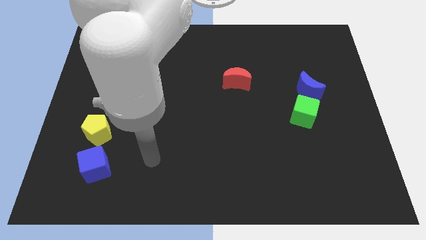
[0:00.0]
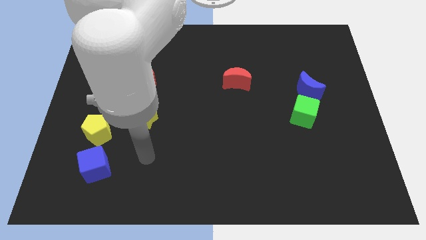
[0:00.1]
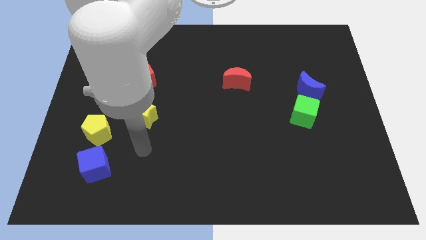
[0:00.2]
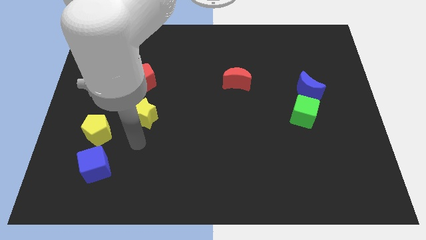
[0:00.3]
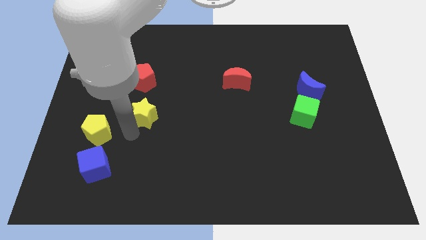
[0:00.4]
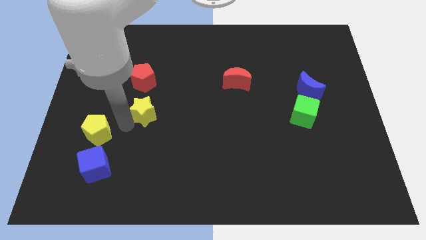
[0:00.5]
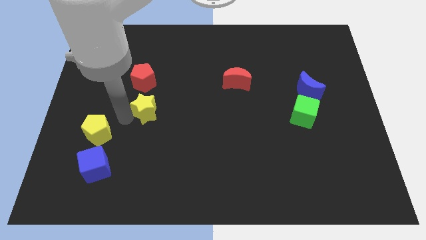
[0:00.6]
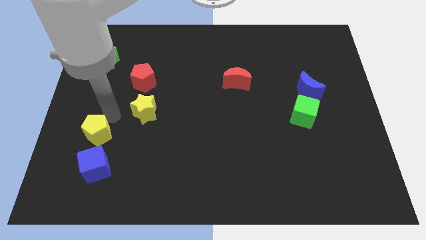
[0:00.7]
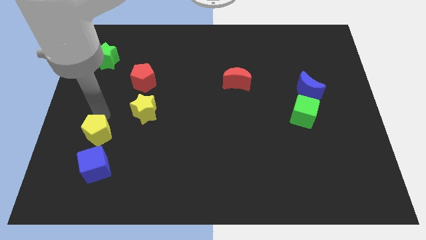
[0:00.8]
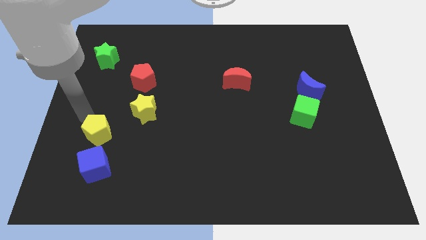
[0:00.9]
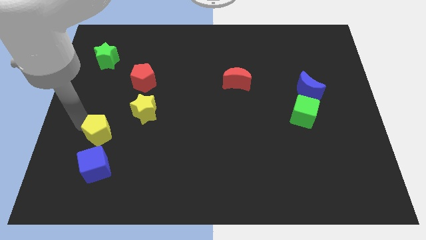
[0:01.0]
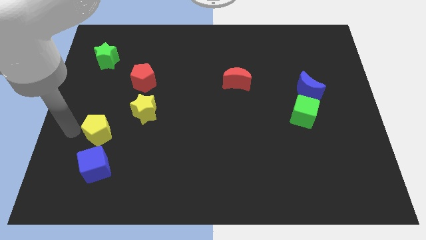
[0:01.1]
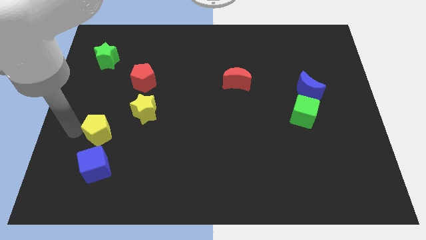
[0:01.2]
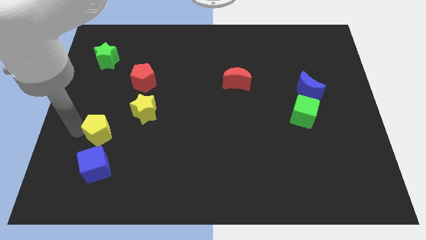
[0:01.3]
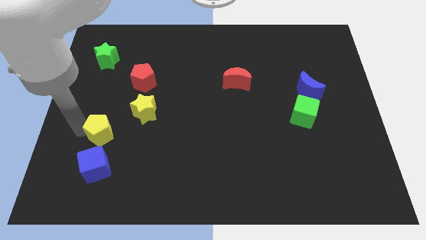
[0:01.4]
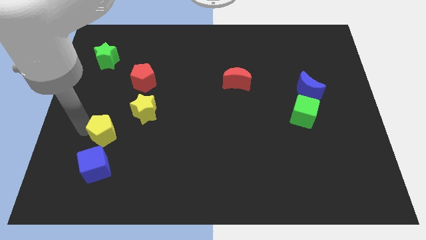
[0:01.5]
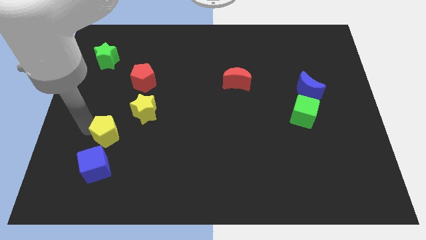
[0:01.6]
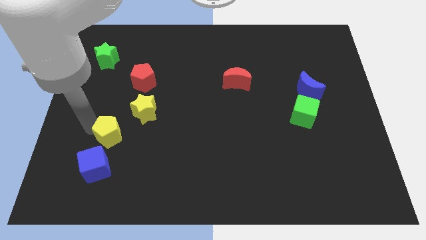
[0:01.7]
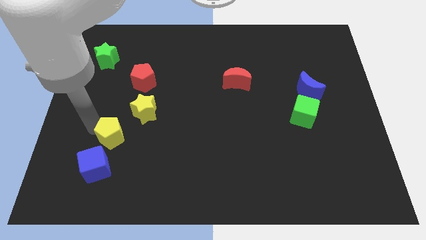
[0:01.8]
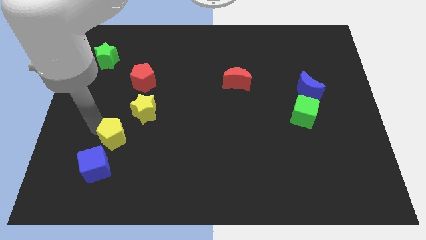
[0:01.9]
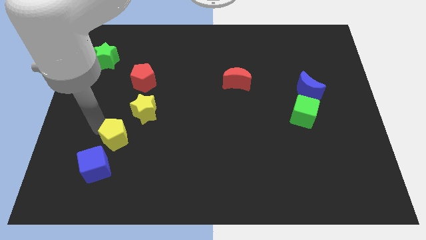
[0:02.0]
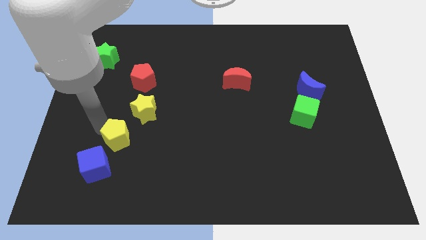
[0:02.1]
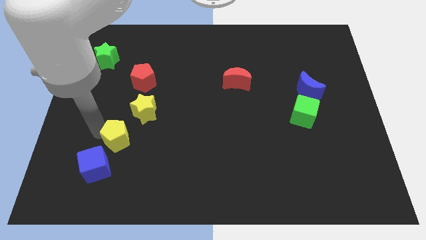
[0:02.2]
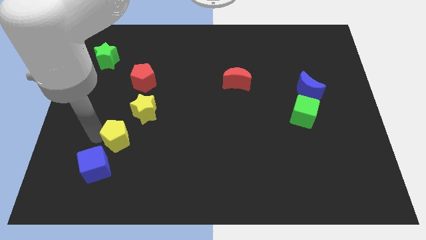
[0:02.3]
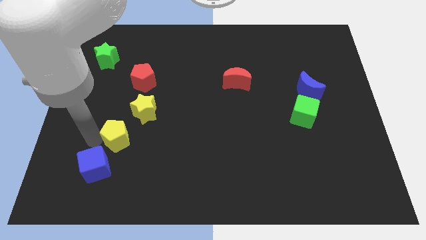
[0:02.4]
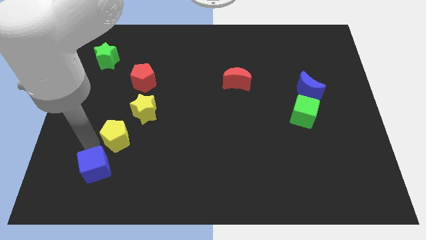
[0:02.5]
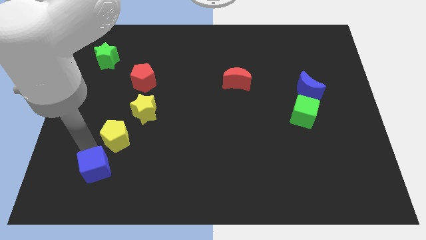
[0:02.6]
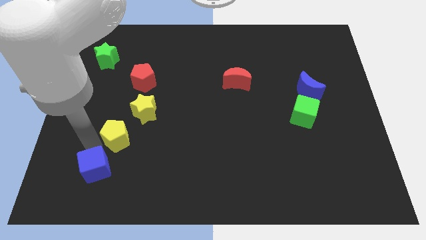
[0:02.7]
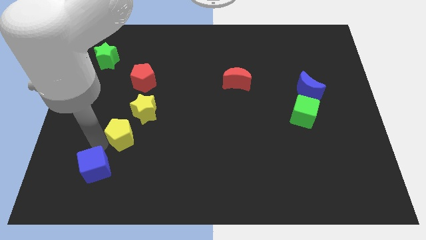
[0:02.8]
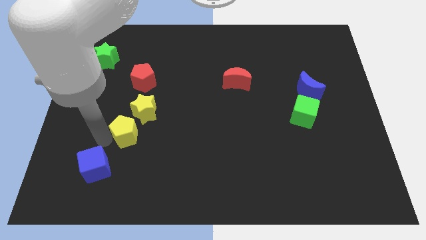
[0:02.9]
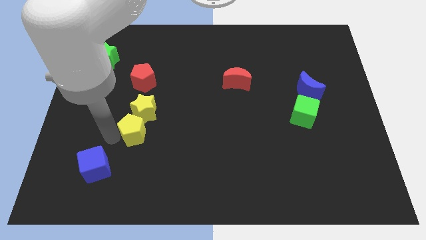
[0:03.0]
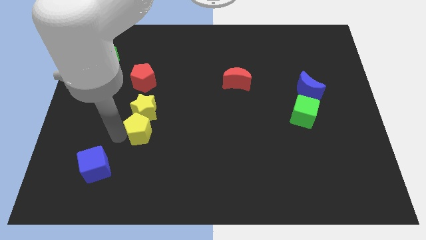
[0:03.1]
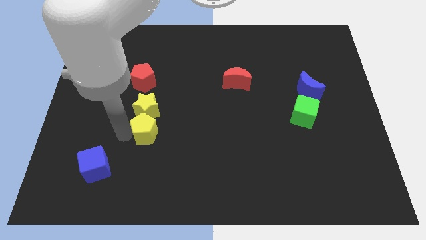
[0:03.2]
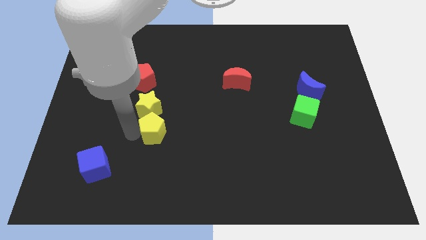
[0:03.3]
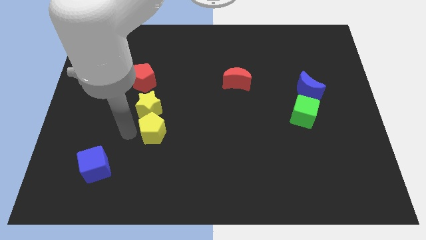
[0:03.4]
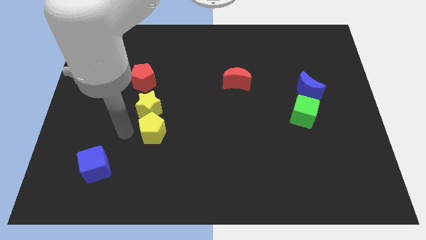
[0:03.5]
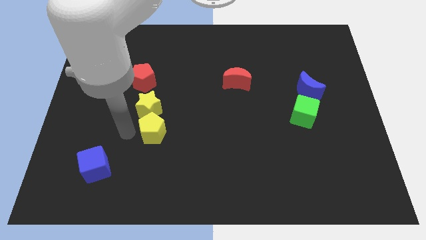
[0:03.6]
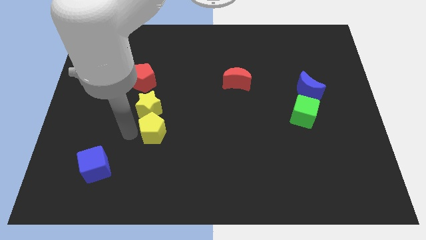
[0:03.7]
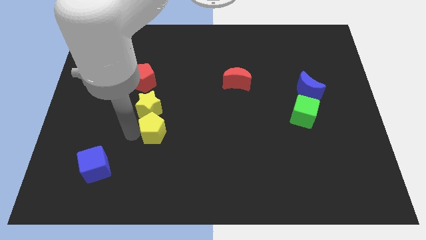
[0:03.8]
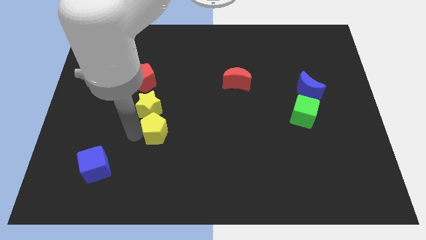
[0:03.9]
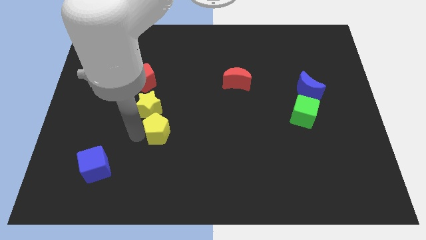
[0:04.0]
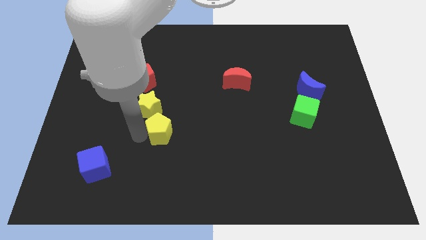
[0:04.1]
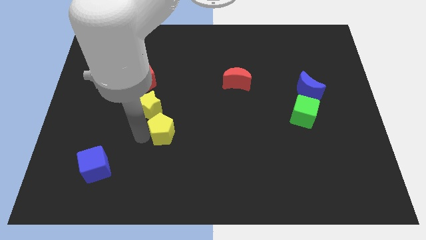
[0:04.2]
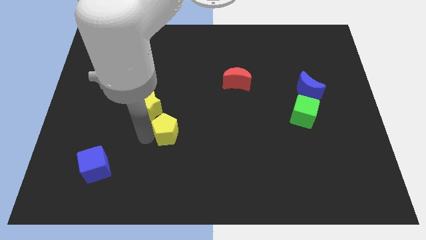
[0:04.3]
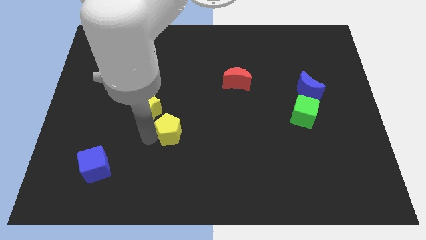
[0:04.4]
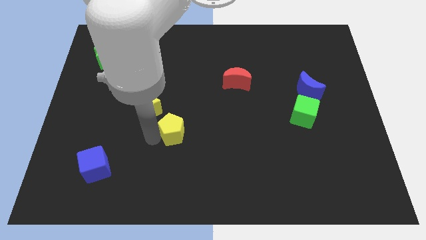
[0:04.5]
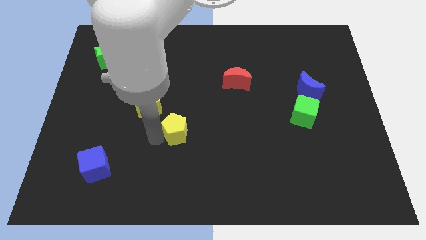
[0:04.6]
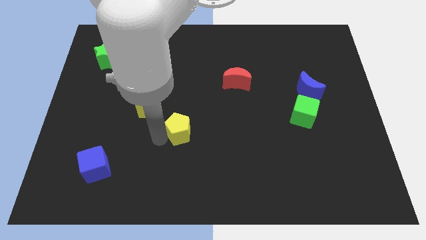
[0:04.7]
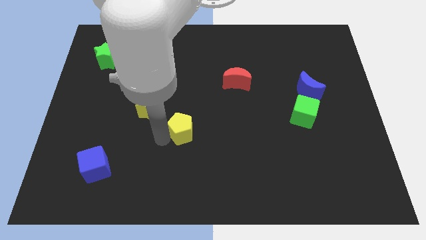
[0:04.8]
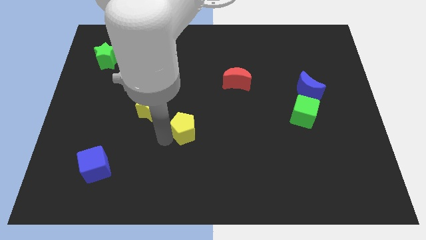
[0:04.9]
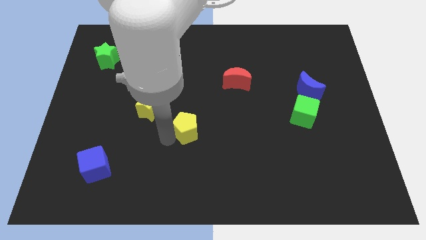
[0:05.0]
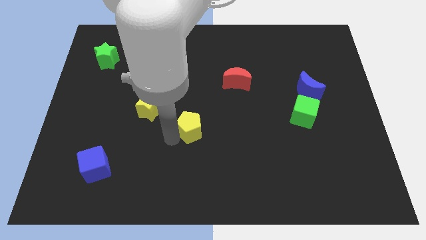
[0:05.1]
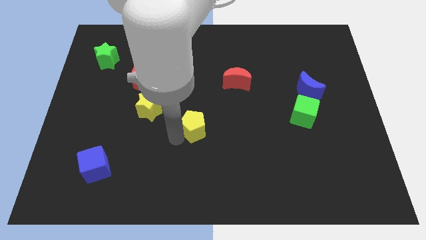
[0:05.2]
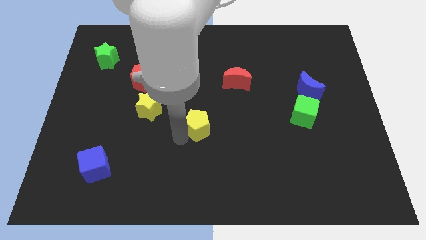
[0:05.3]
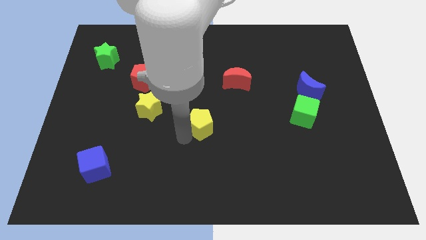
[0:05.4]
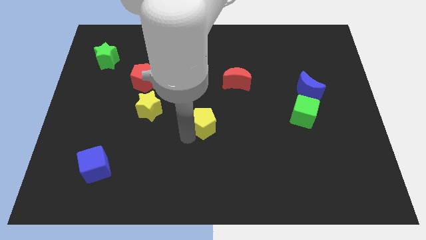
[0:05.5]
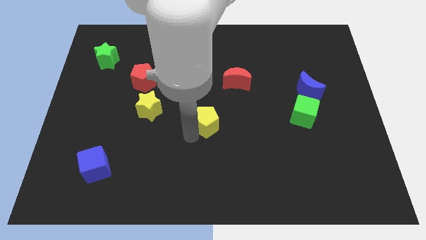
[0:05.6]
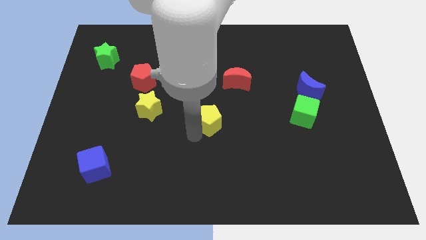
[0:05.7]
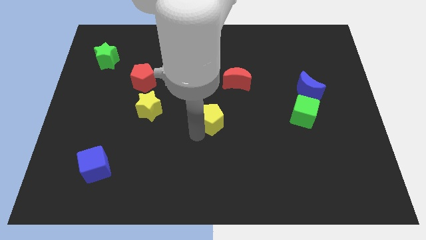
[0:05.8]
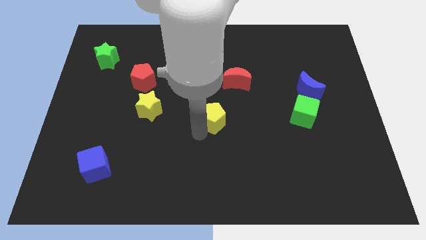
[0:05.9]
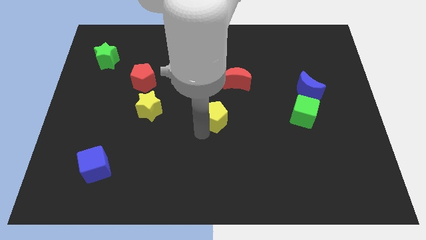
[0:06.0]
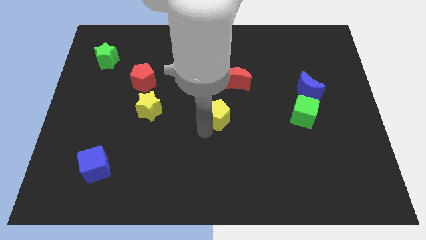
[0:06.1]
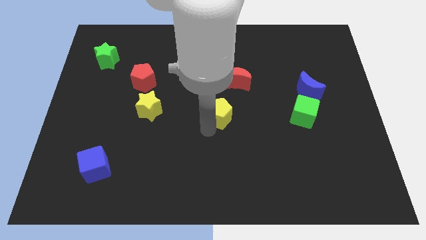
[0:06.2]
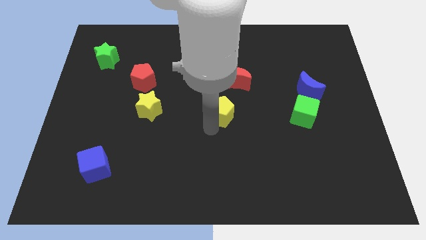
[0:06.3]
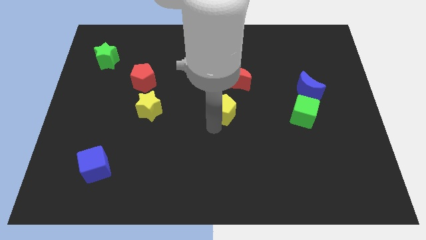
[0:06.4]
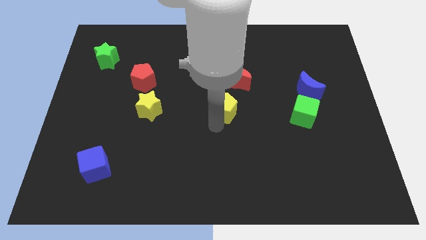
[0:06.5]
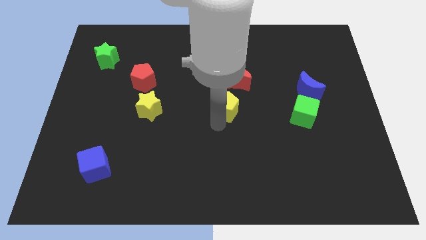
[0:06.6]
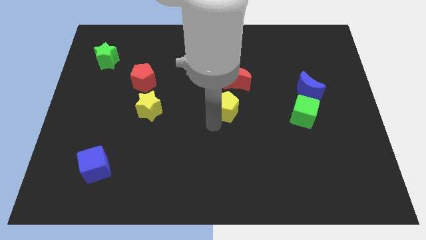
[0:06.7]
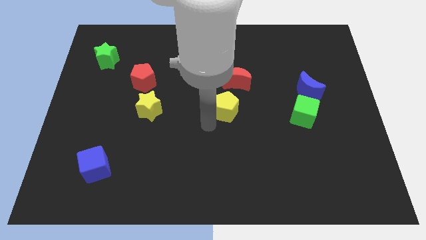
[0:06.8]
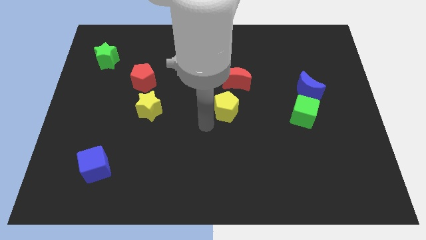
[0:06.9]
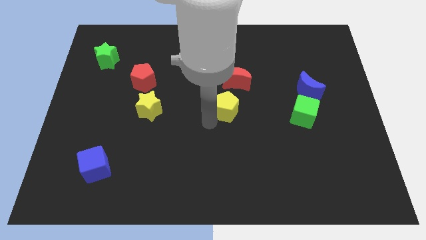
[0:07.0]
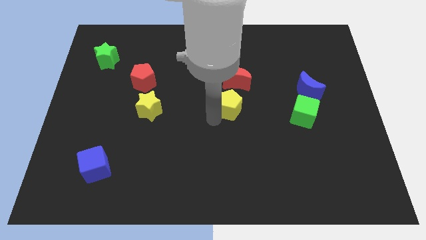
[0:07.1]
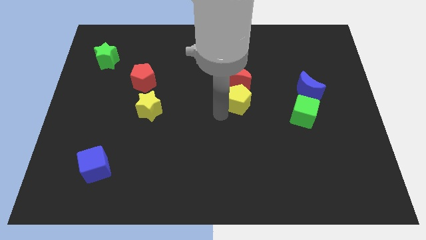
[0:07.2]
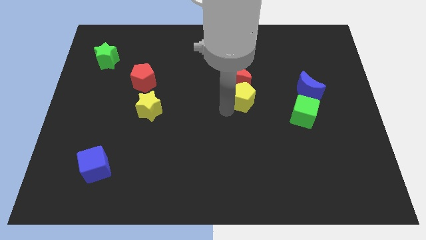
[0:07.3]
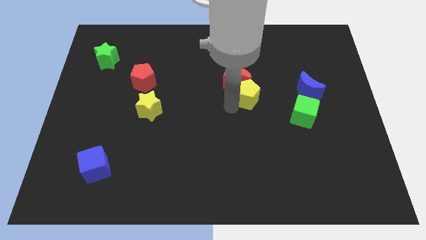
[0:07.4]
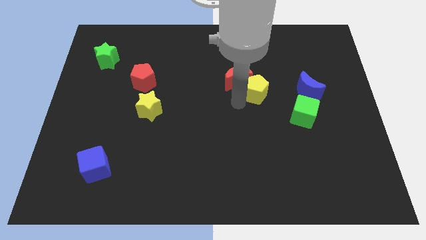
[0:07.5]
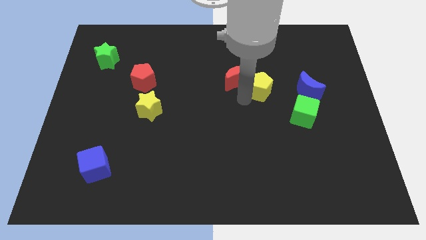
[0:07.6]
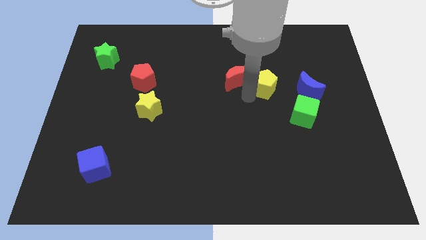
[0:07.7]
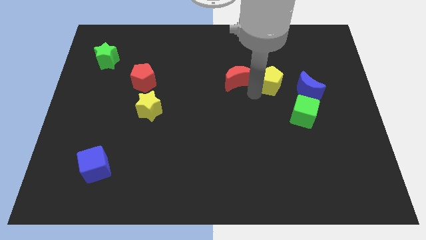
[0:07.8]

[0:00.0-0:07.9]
slide the yellow pentagon to the top left of the blue moon
